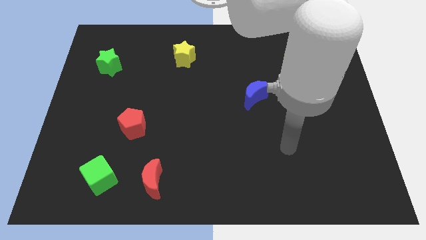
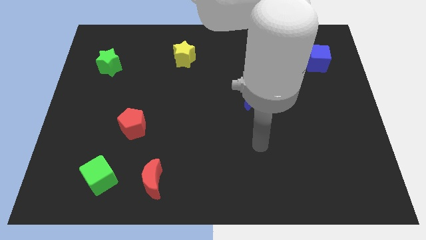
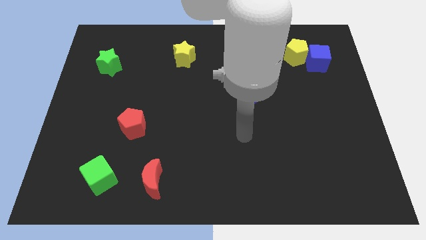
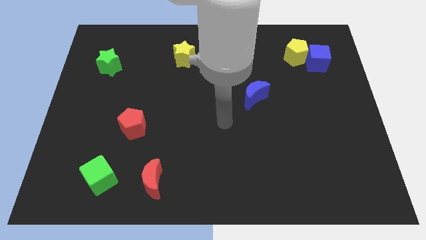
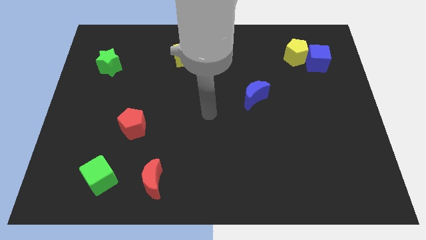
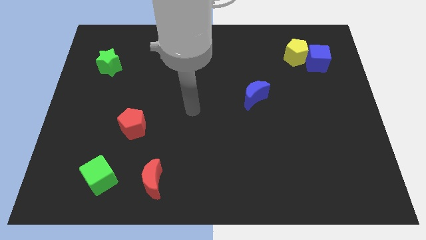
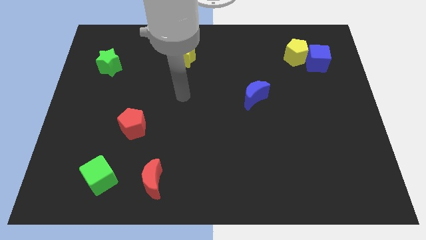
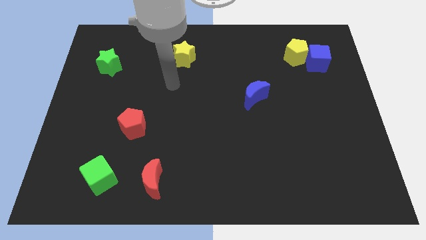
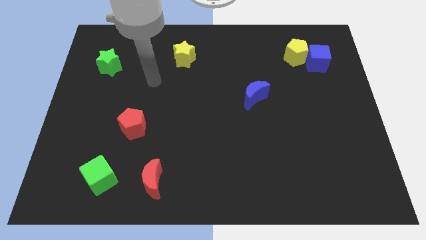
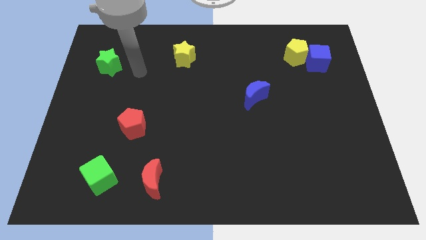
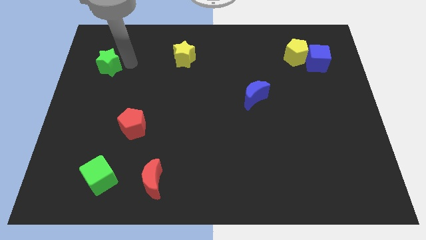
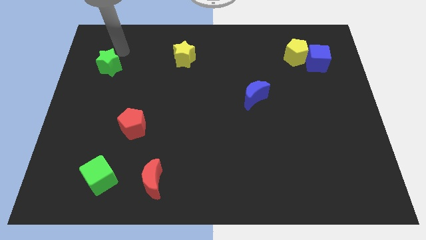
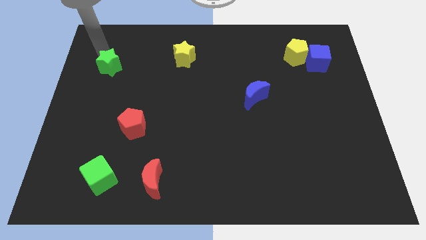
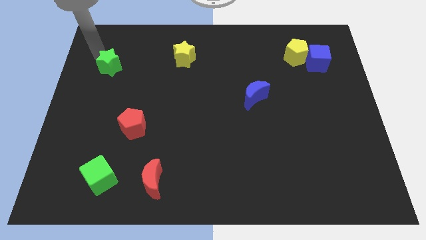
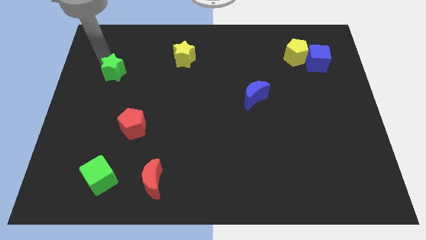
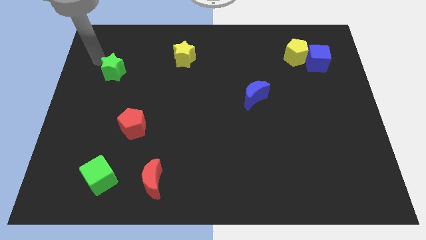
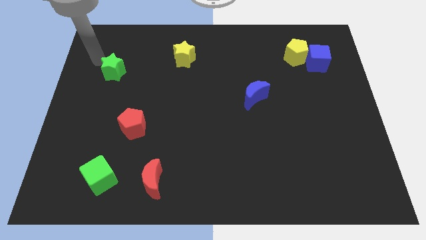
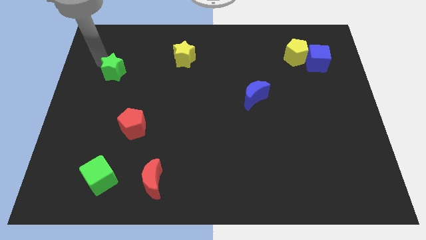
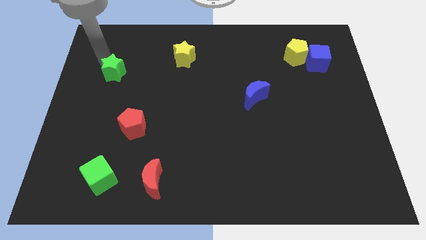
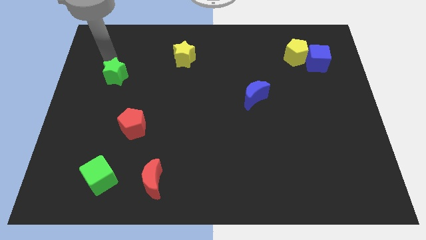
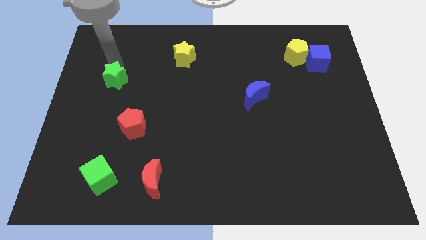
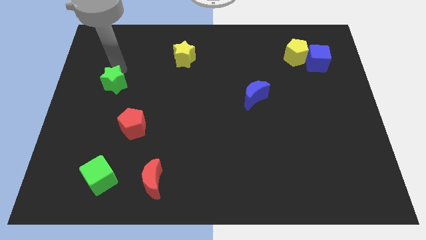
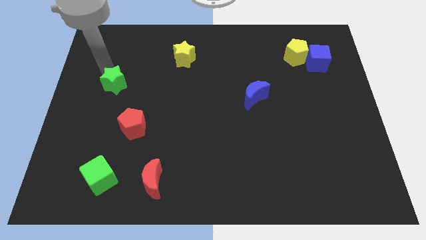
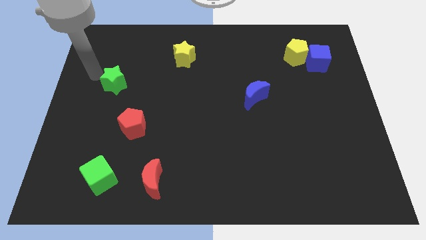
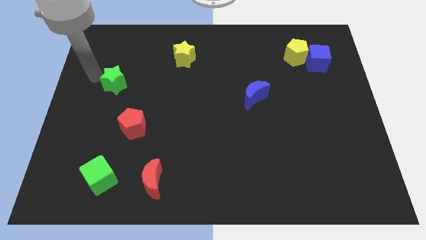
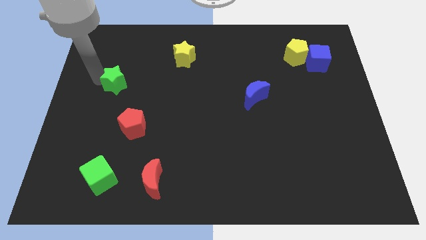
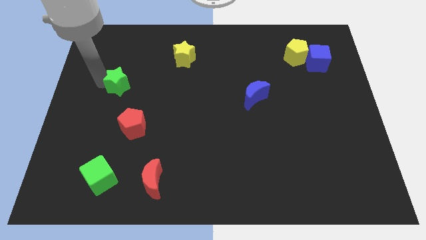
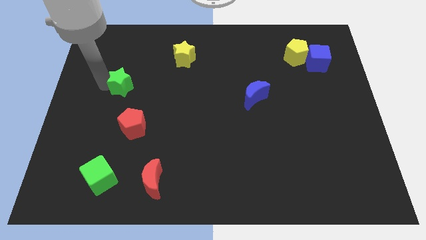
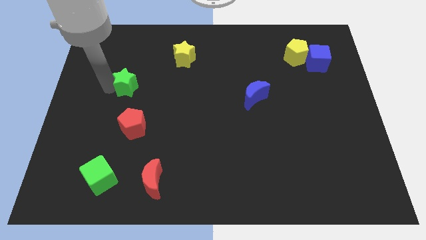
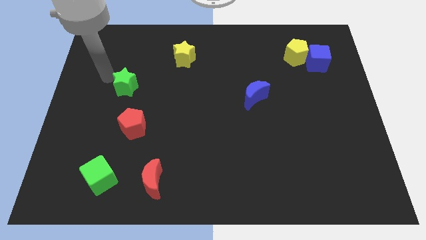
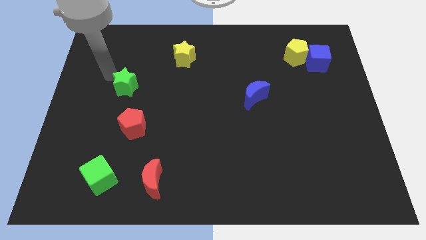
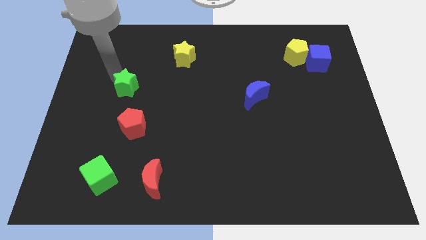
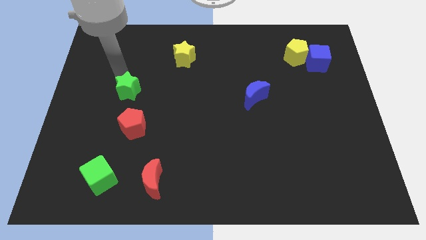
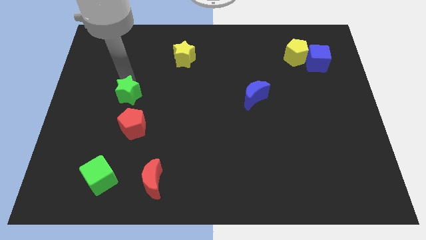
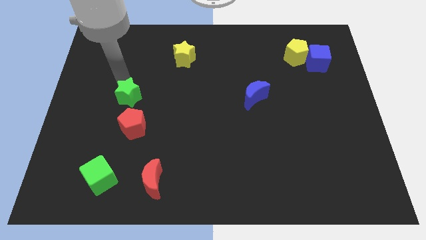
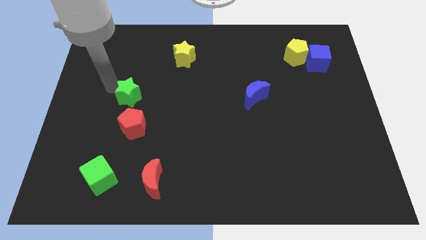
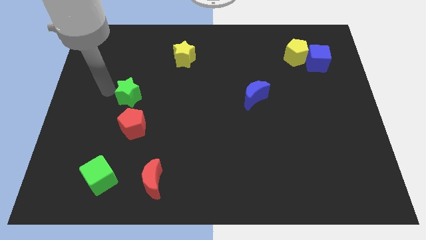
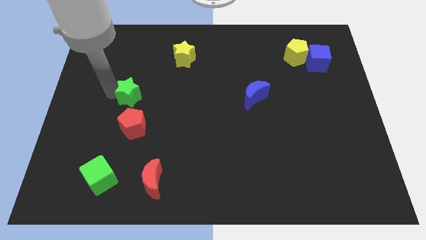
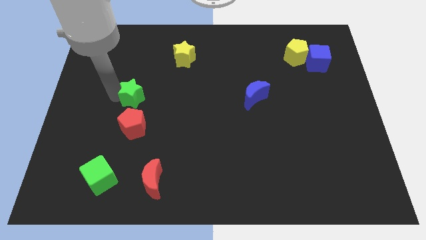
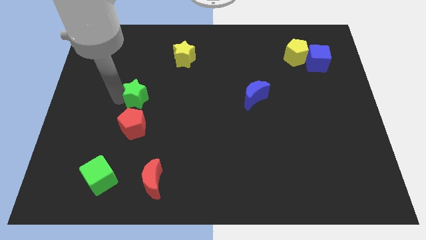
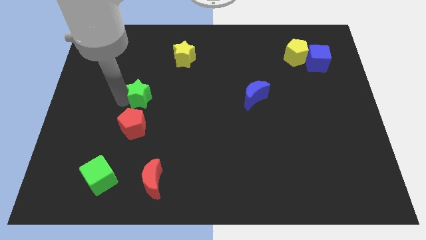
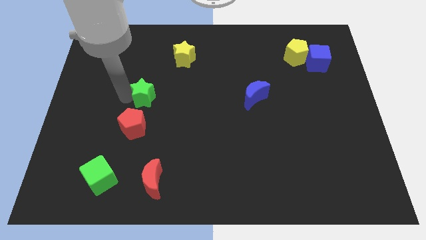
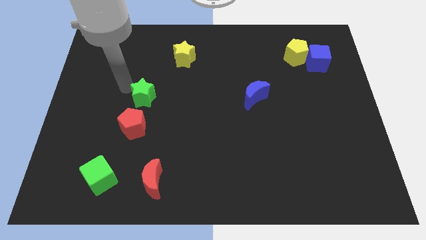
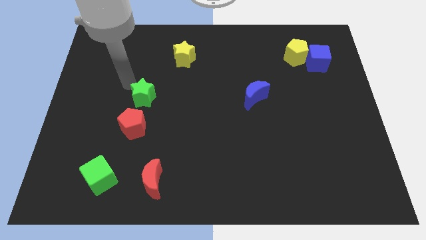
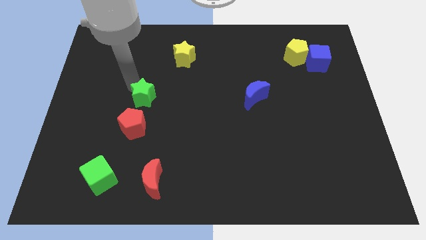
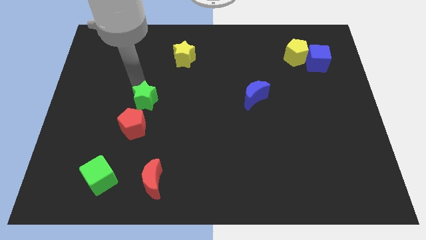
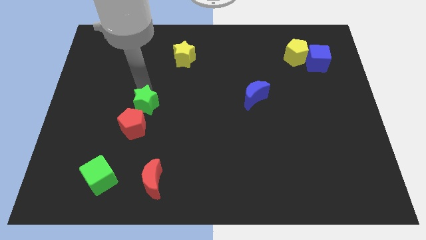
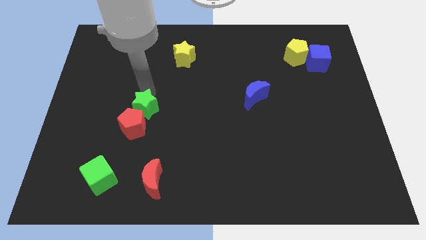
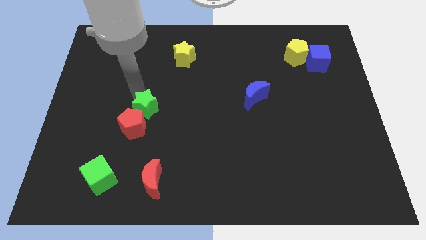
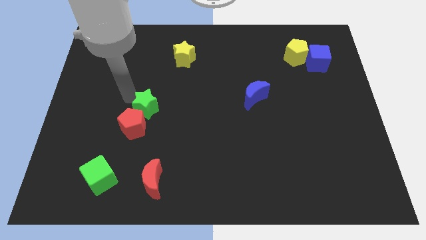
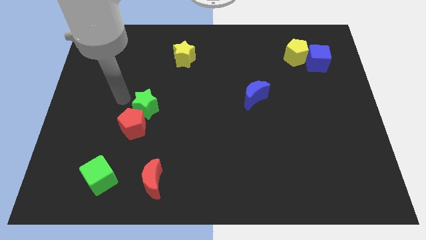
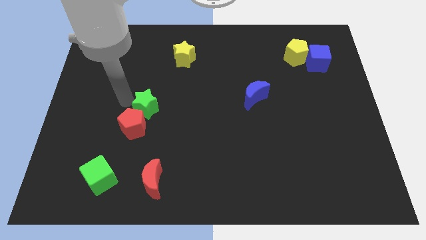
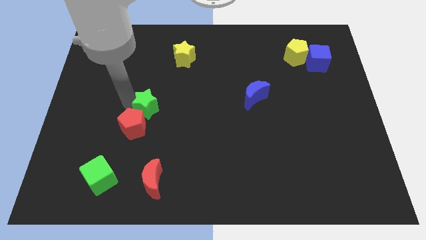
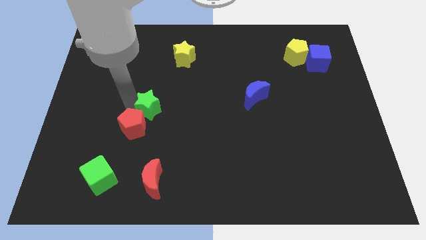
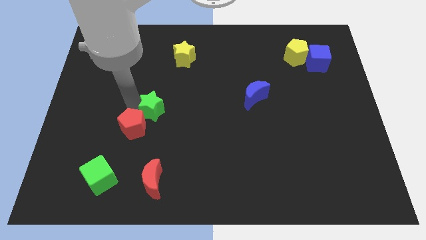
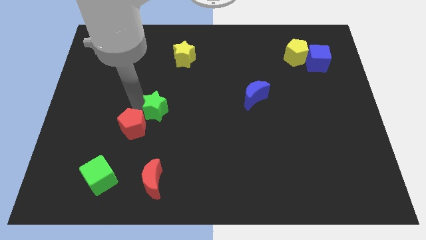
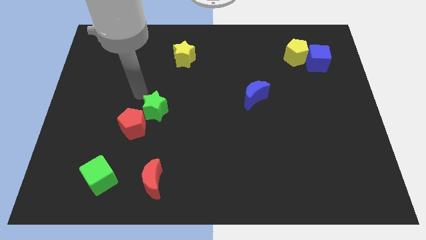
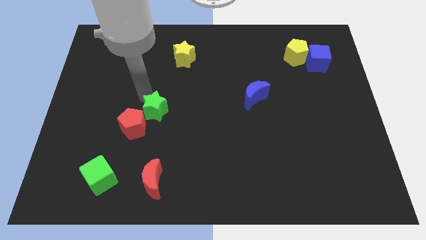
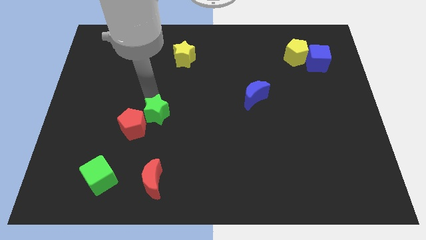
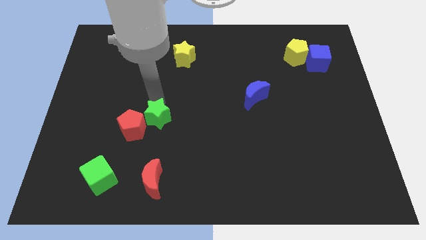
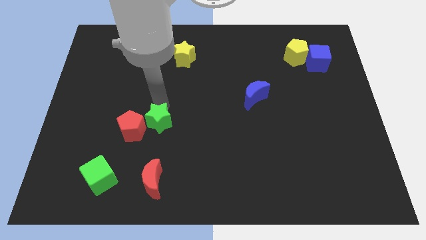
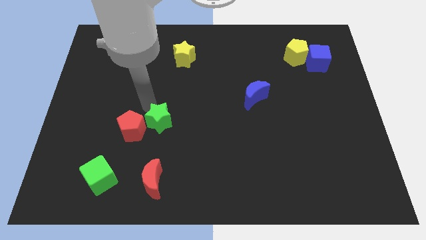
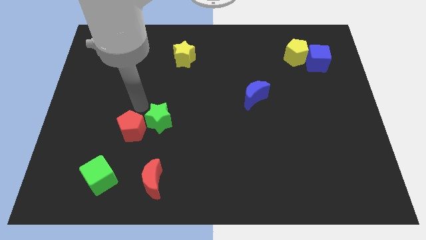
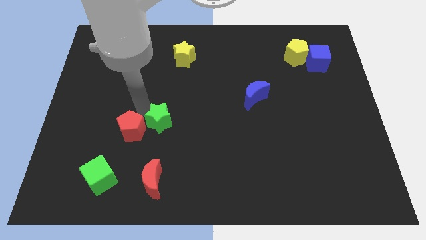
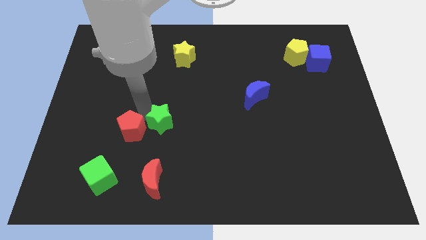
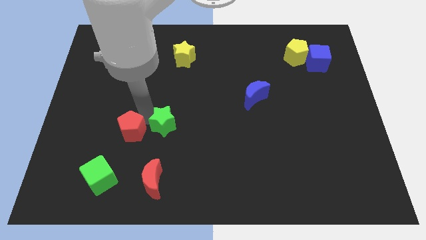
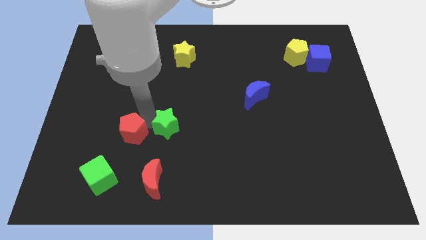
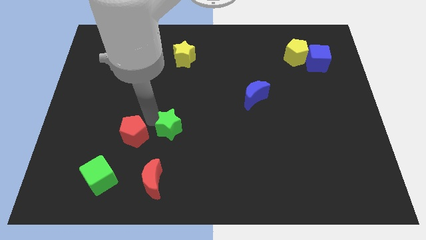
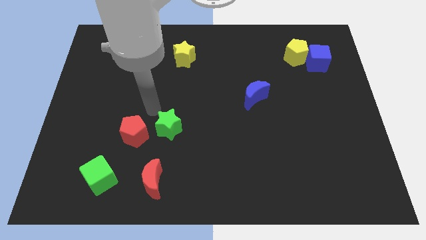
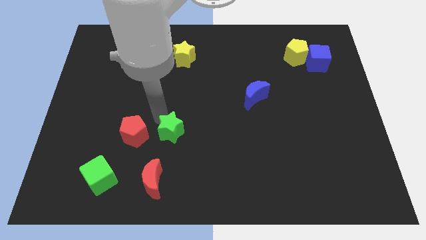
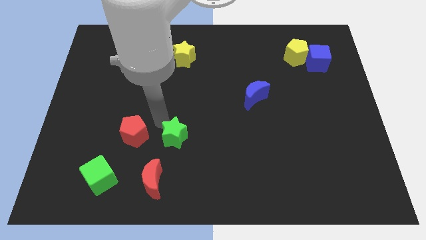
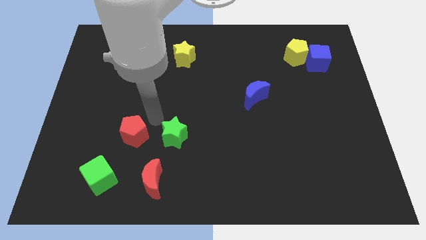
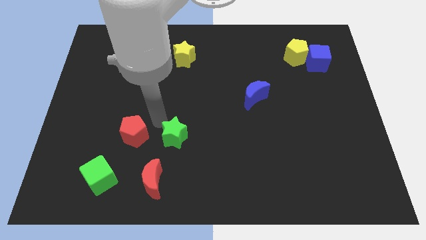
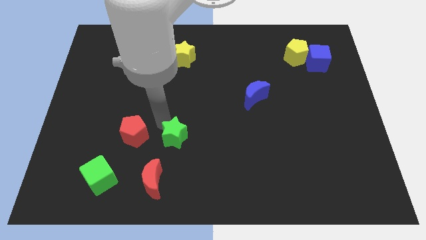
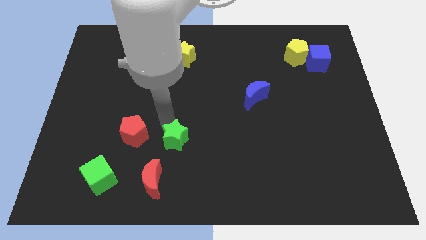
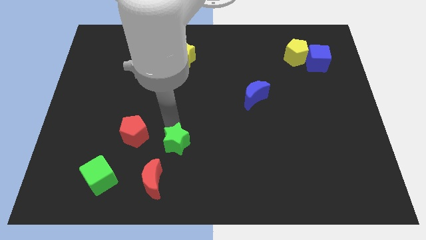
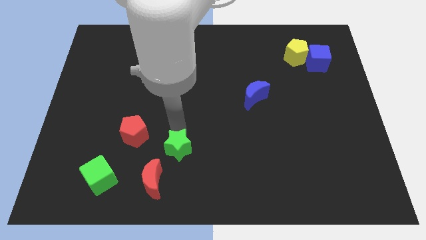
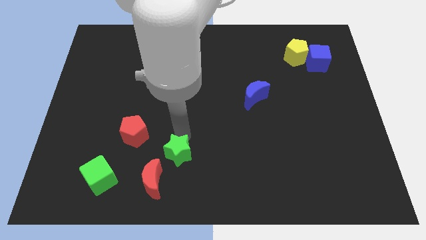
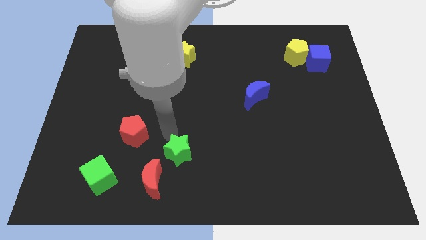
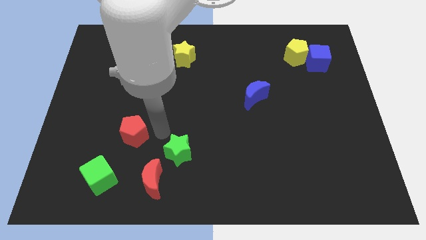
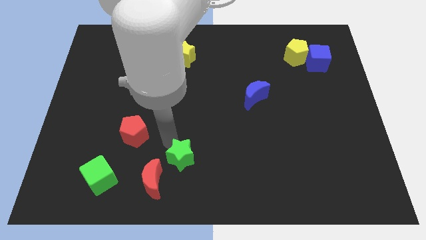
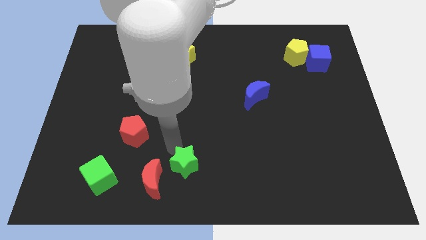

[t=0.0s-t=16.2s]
slide the green star to the bottom
